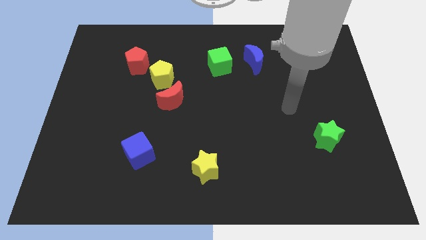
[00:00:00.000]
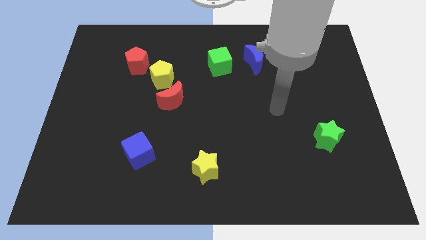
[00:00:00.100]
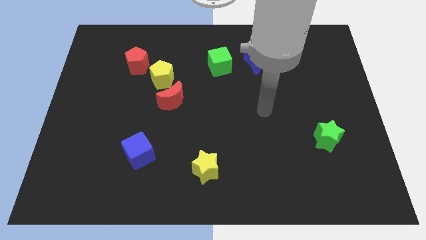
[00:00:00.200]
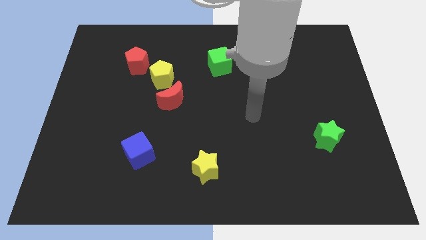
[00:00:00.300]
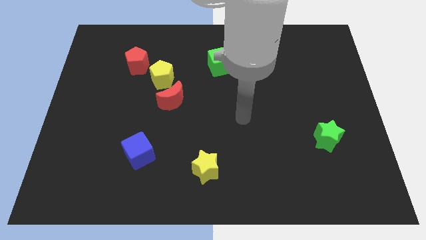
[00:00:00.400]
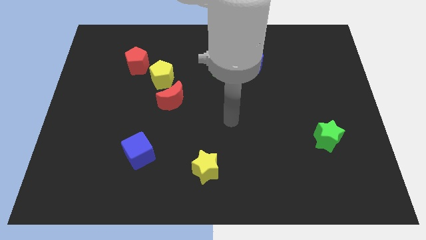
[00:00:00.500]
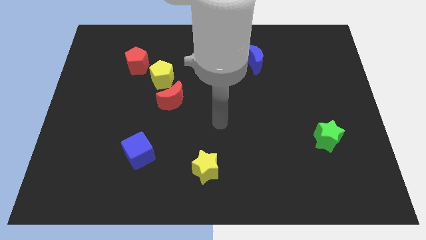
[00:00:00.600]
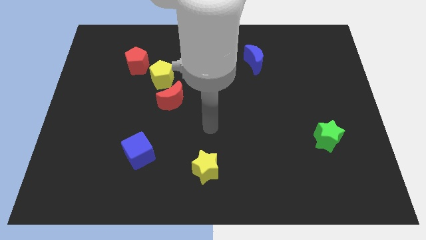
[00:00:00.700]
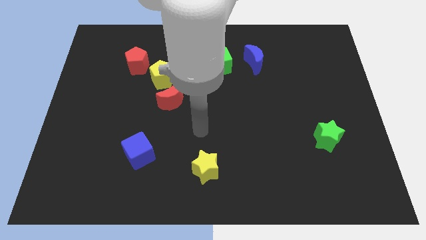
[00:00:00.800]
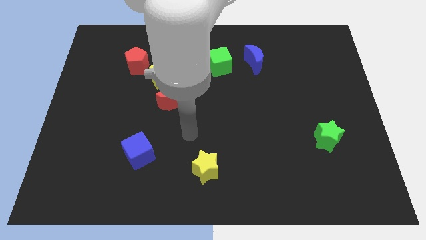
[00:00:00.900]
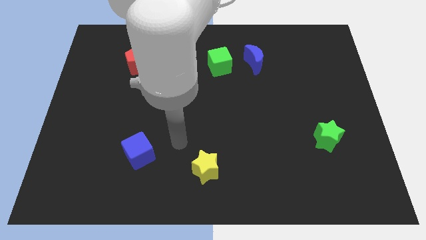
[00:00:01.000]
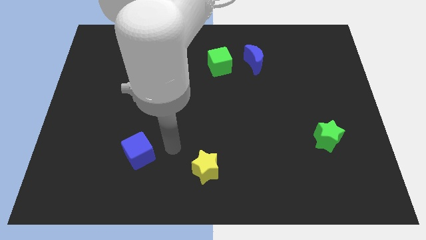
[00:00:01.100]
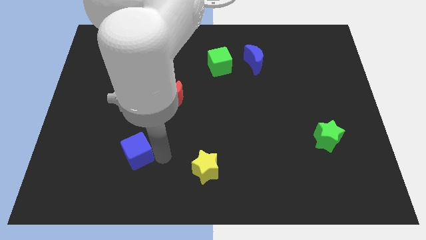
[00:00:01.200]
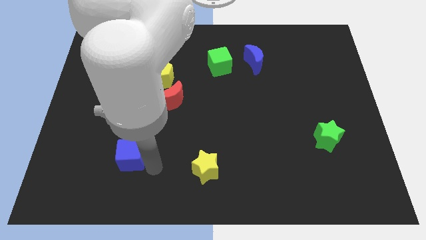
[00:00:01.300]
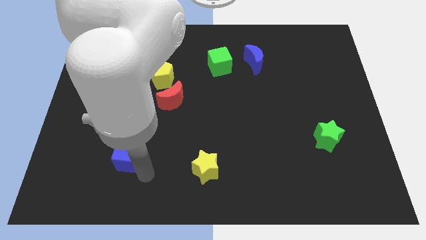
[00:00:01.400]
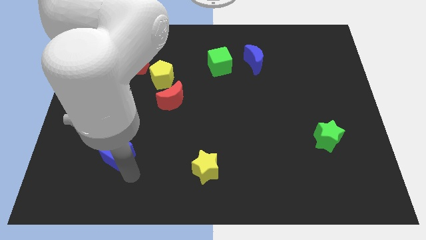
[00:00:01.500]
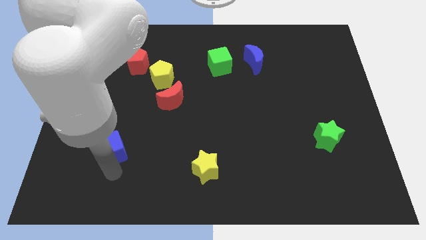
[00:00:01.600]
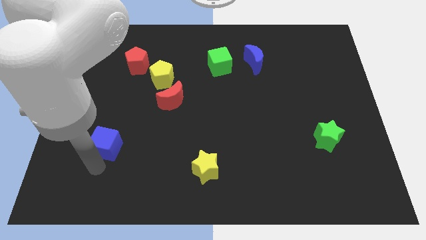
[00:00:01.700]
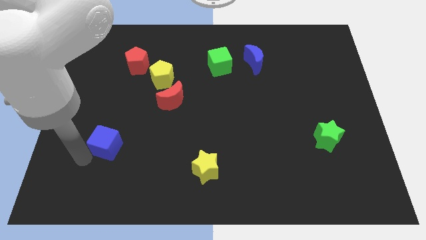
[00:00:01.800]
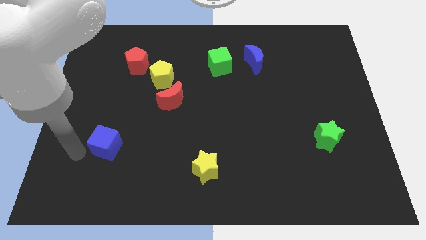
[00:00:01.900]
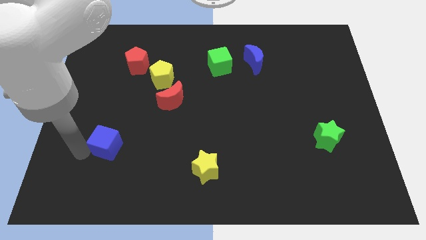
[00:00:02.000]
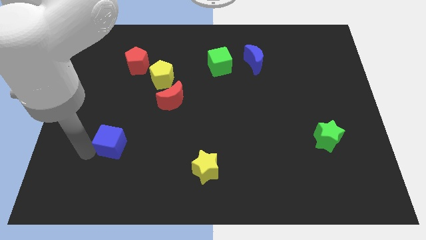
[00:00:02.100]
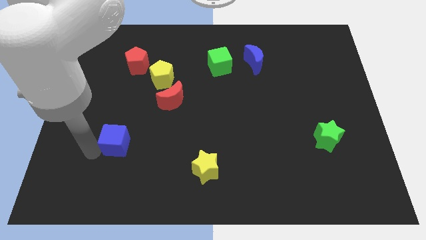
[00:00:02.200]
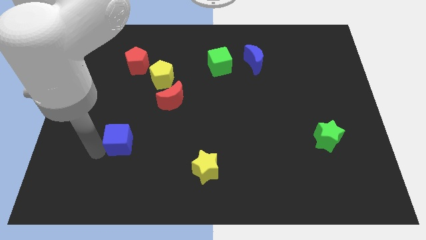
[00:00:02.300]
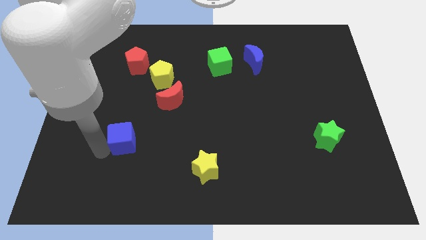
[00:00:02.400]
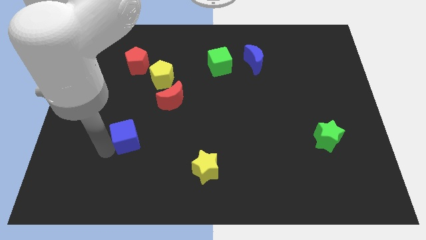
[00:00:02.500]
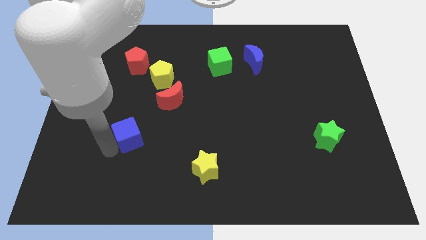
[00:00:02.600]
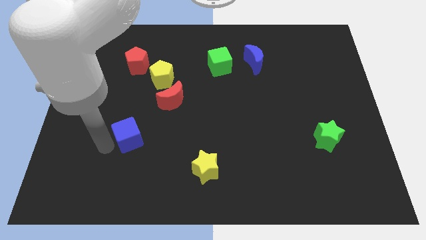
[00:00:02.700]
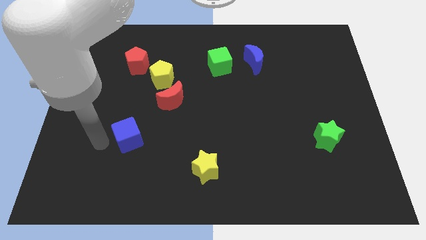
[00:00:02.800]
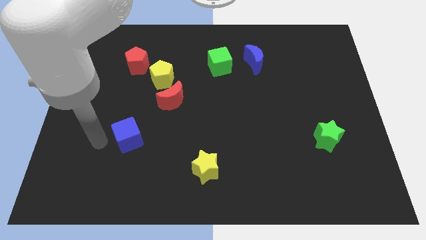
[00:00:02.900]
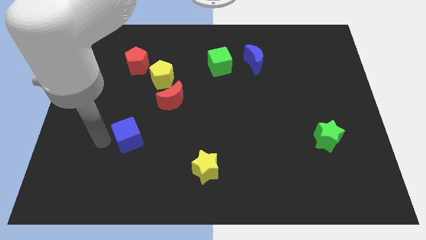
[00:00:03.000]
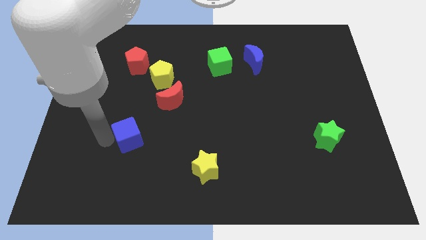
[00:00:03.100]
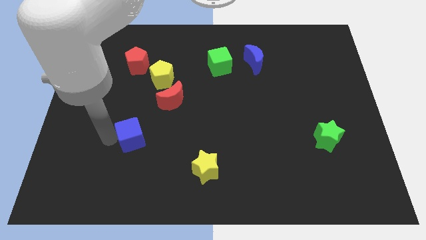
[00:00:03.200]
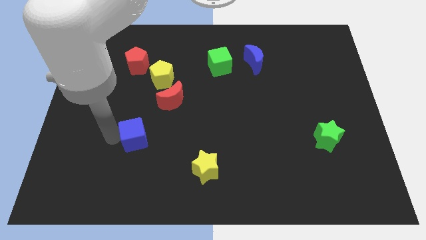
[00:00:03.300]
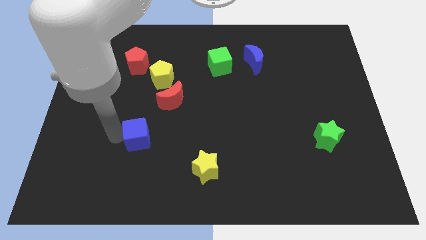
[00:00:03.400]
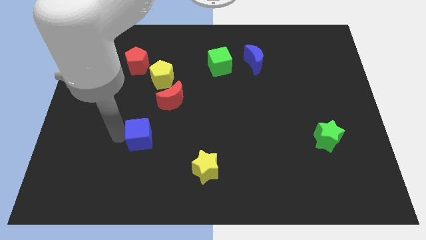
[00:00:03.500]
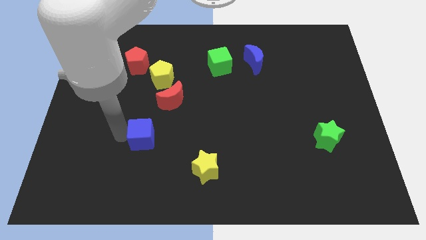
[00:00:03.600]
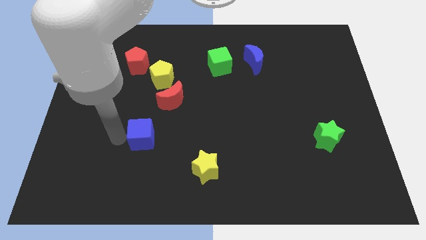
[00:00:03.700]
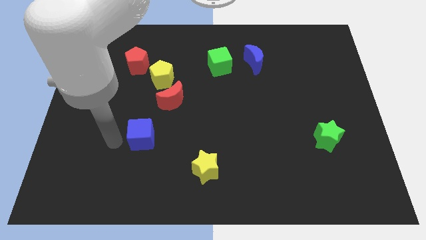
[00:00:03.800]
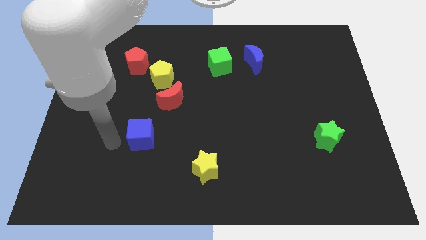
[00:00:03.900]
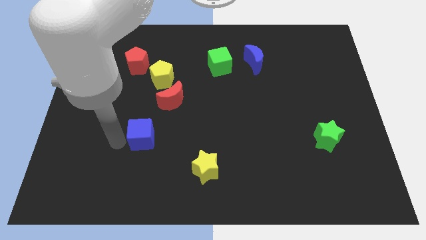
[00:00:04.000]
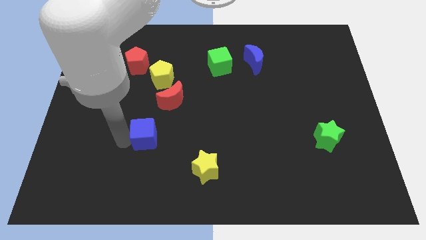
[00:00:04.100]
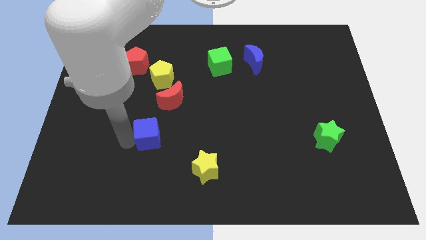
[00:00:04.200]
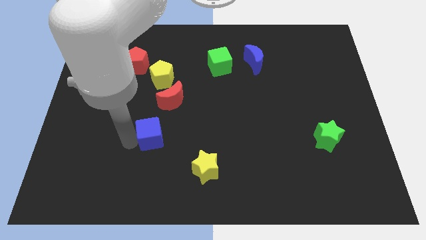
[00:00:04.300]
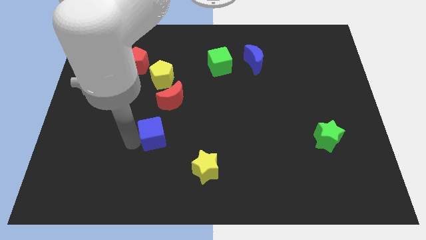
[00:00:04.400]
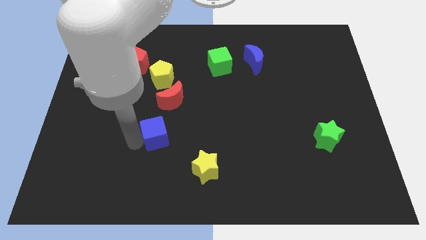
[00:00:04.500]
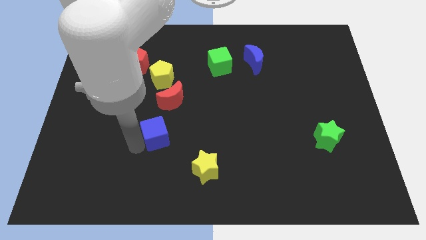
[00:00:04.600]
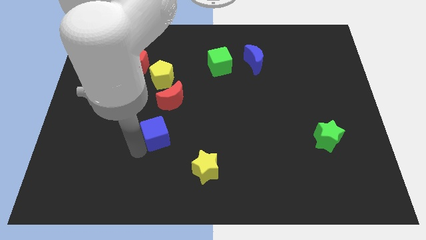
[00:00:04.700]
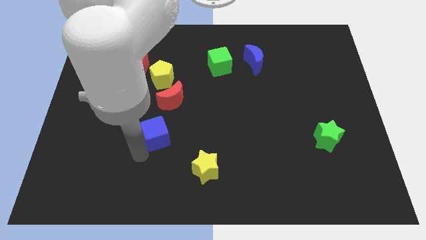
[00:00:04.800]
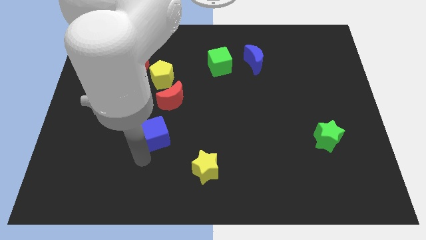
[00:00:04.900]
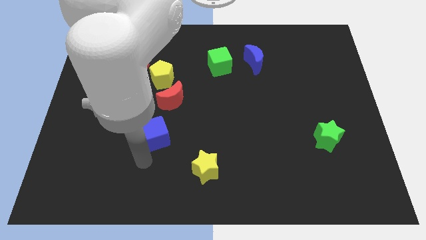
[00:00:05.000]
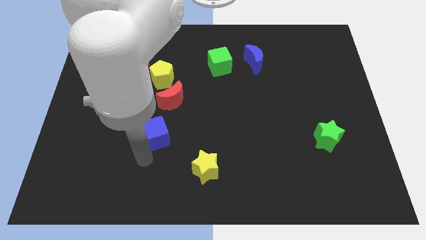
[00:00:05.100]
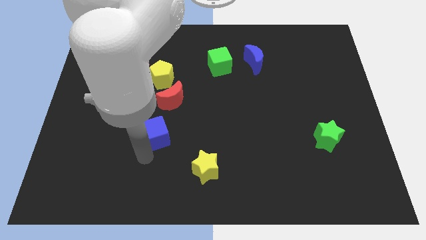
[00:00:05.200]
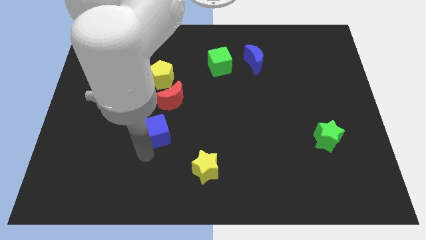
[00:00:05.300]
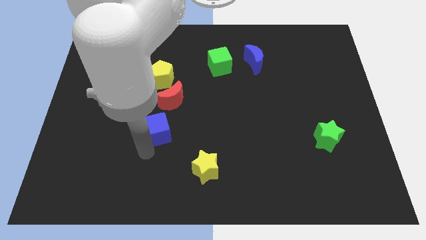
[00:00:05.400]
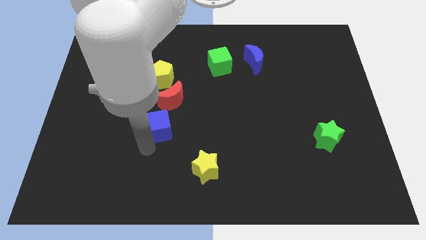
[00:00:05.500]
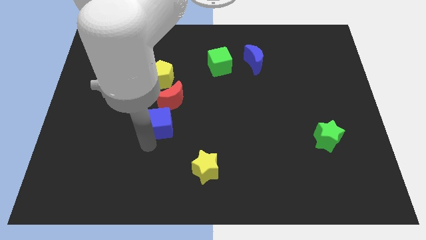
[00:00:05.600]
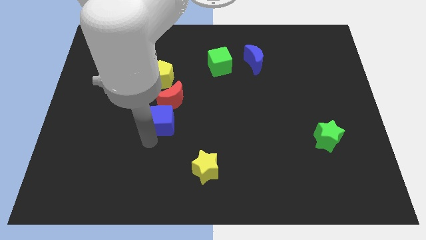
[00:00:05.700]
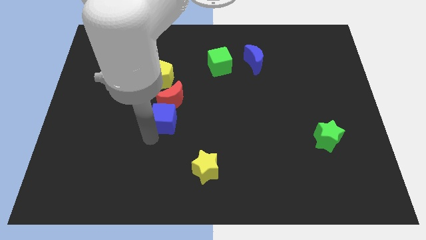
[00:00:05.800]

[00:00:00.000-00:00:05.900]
move the blue cube to the red moon
